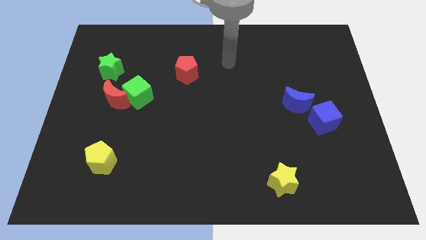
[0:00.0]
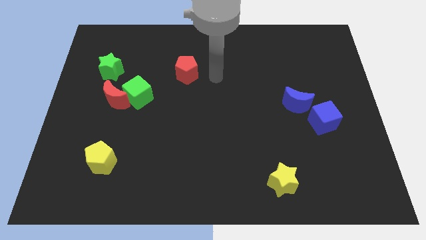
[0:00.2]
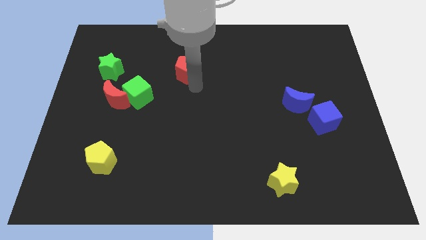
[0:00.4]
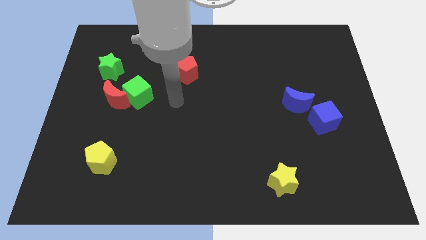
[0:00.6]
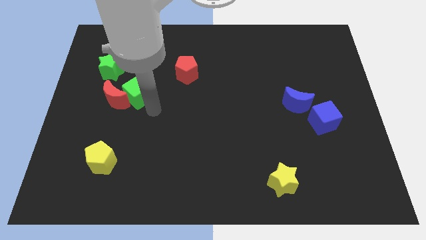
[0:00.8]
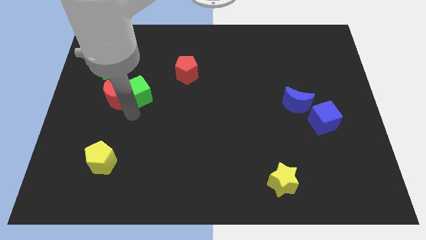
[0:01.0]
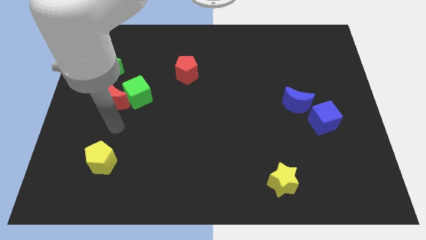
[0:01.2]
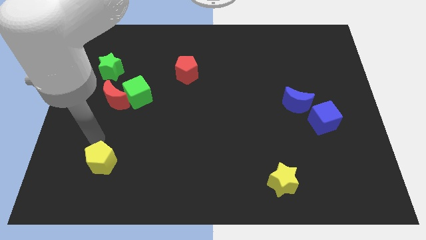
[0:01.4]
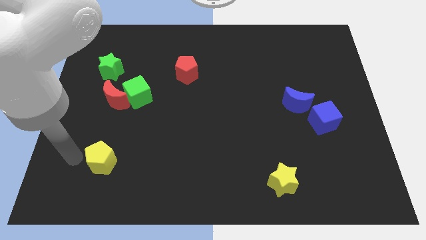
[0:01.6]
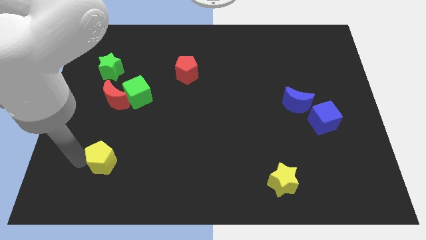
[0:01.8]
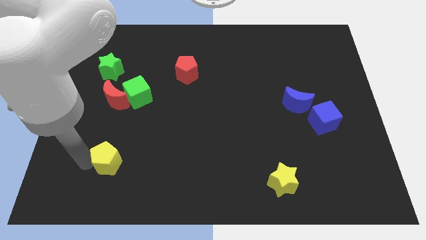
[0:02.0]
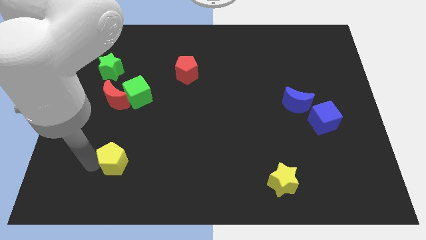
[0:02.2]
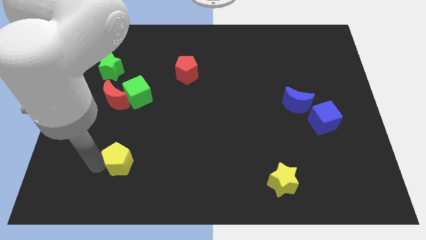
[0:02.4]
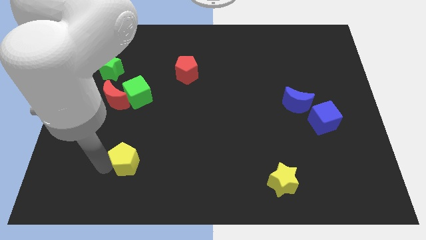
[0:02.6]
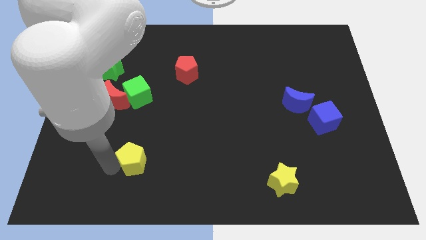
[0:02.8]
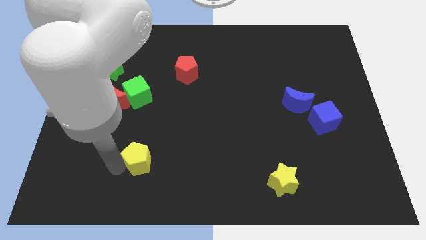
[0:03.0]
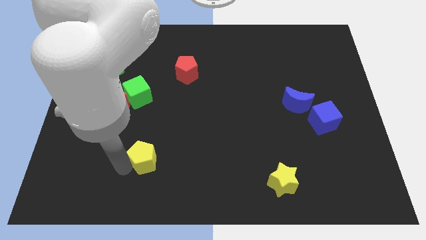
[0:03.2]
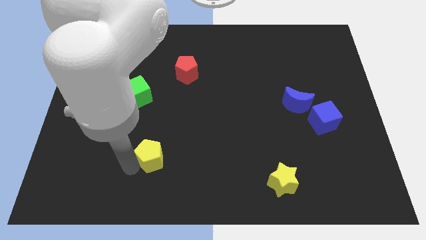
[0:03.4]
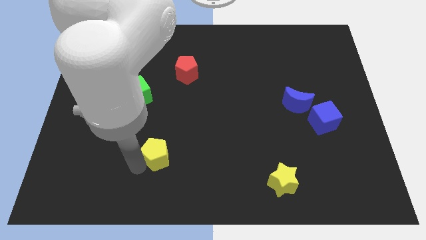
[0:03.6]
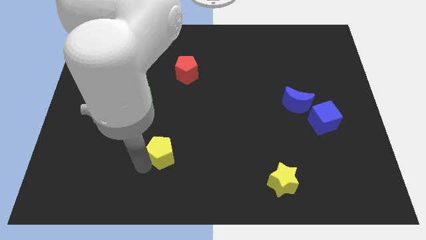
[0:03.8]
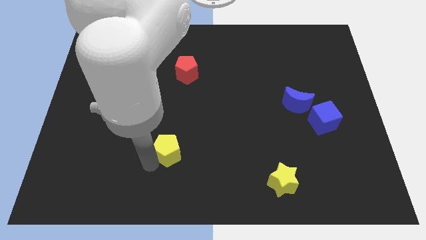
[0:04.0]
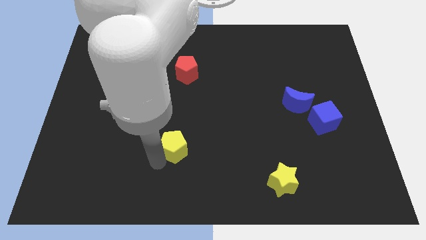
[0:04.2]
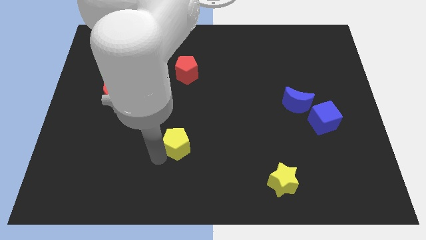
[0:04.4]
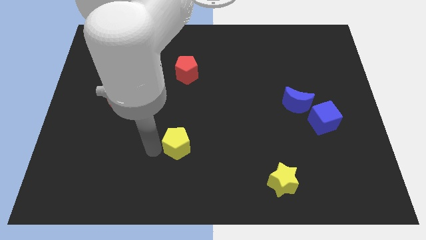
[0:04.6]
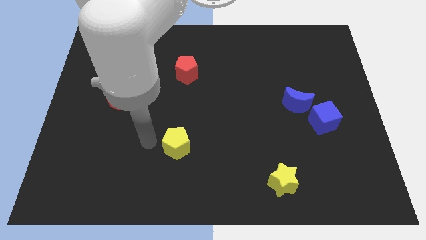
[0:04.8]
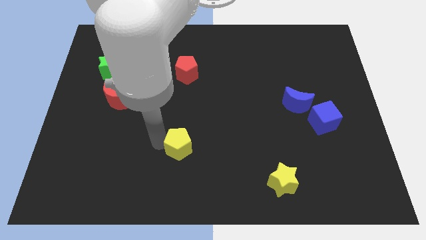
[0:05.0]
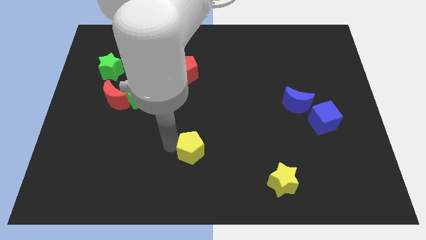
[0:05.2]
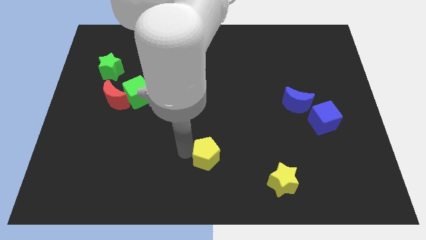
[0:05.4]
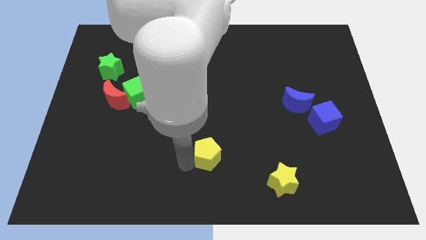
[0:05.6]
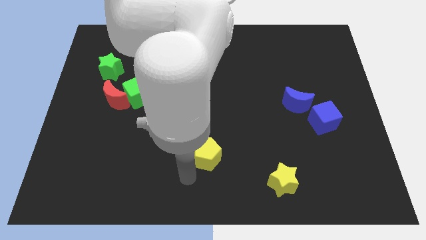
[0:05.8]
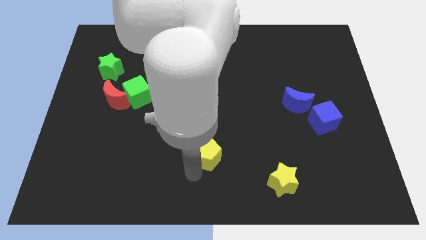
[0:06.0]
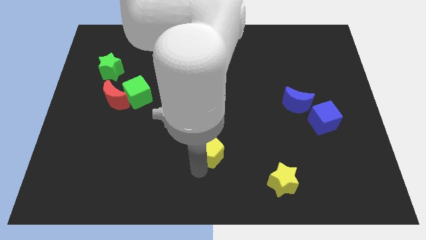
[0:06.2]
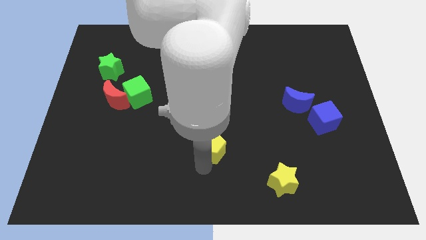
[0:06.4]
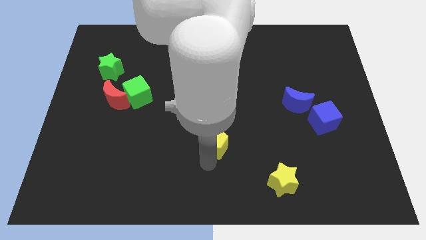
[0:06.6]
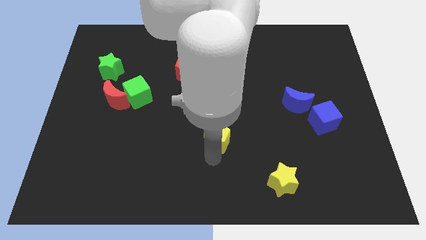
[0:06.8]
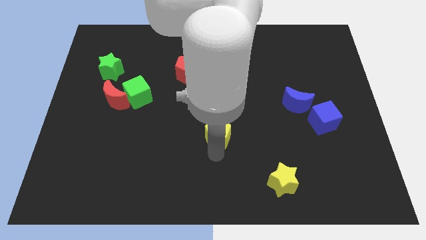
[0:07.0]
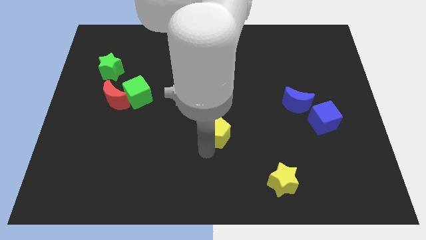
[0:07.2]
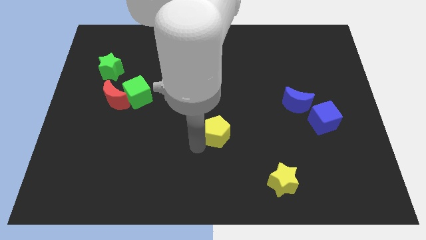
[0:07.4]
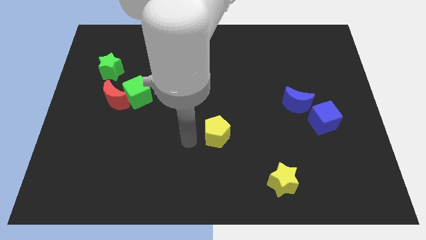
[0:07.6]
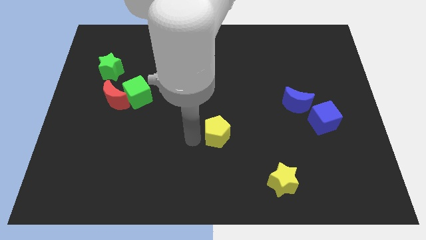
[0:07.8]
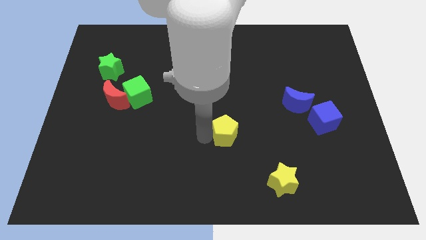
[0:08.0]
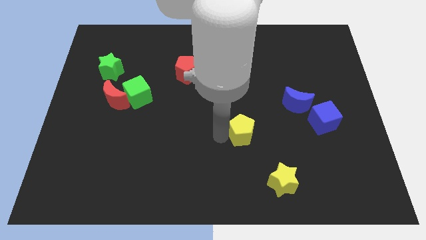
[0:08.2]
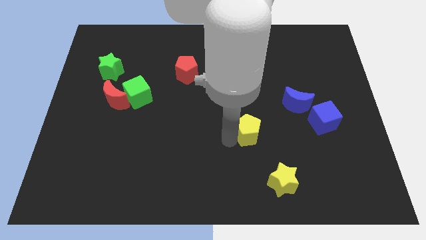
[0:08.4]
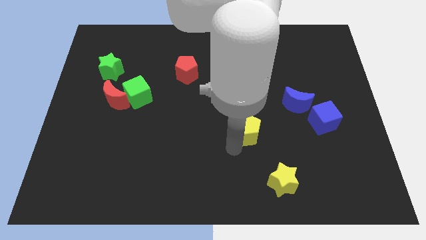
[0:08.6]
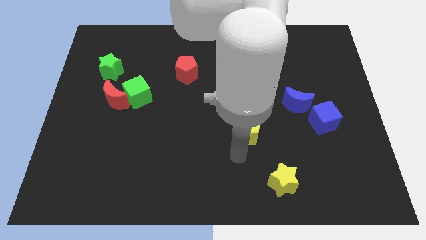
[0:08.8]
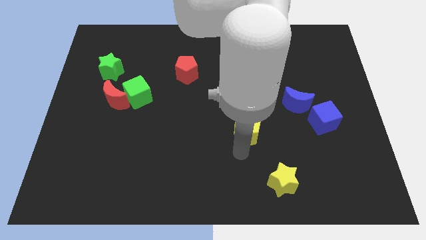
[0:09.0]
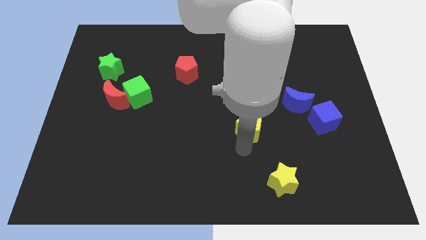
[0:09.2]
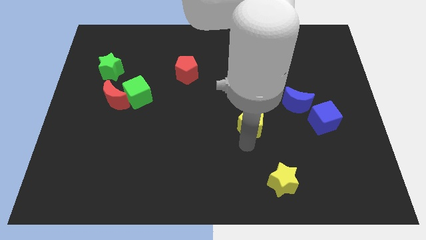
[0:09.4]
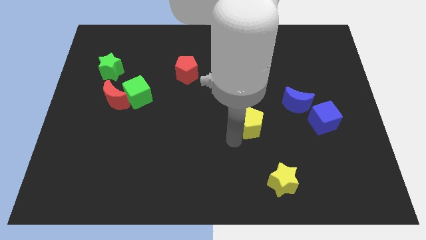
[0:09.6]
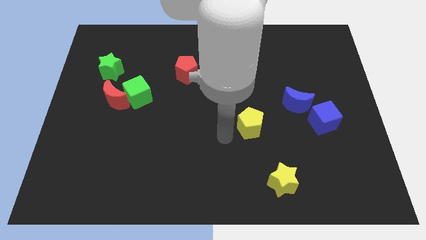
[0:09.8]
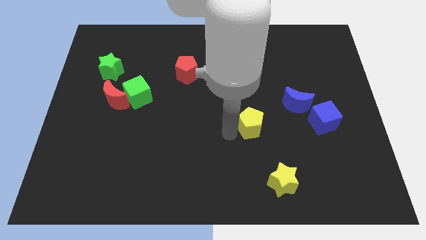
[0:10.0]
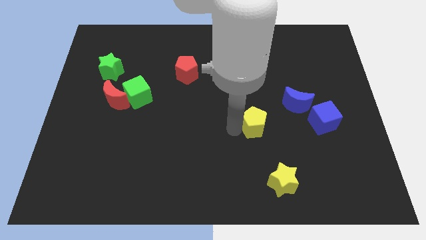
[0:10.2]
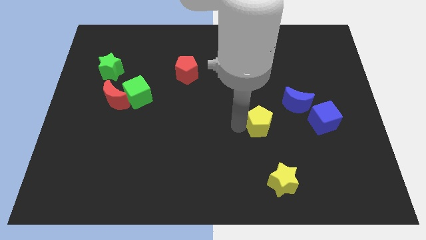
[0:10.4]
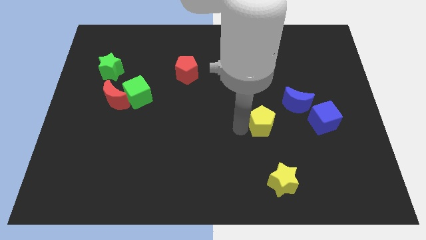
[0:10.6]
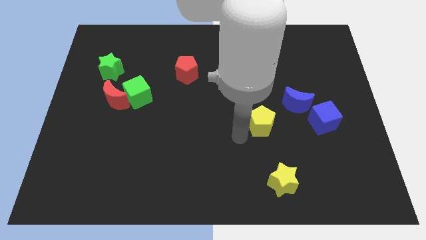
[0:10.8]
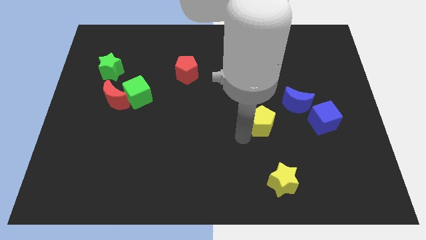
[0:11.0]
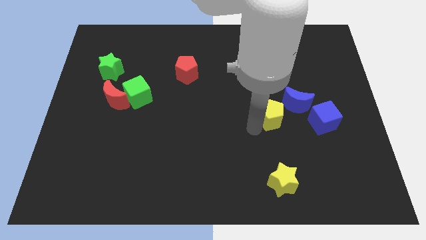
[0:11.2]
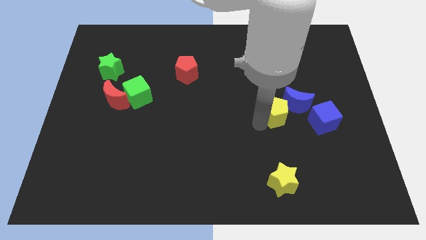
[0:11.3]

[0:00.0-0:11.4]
slide the yellow pentagon next to the blue moon

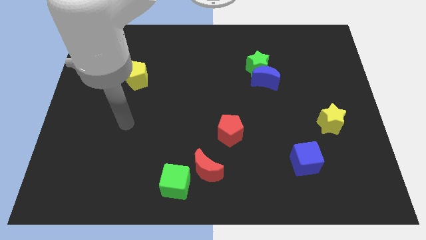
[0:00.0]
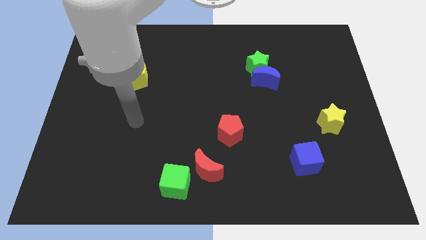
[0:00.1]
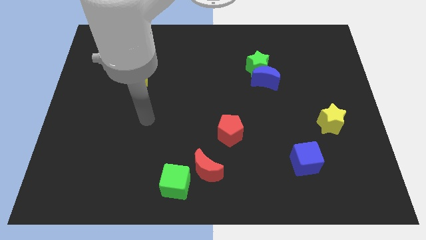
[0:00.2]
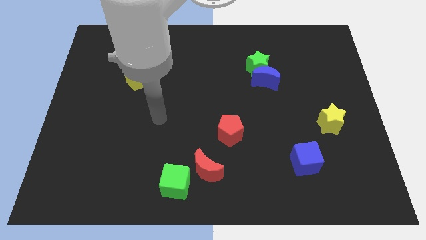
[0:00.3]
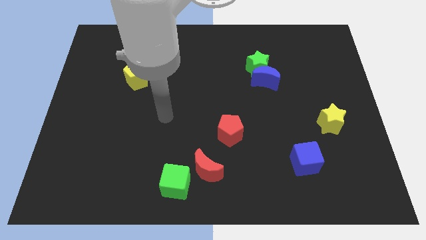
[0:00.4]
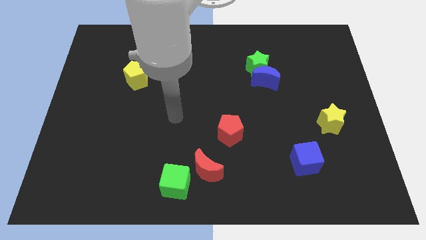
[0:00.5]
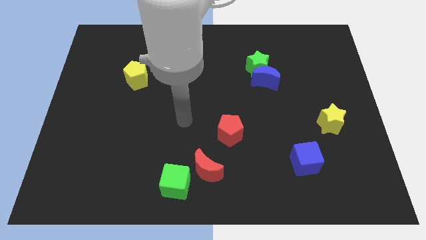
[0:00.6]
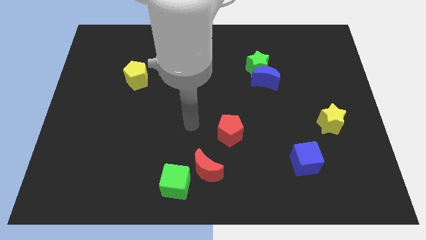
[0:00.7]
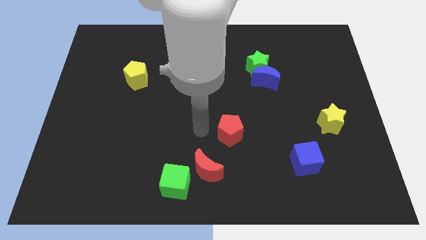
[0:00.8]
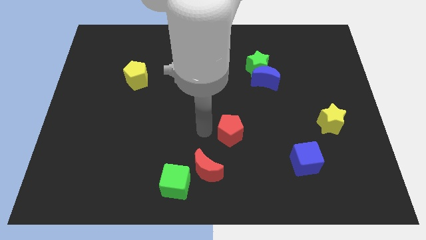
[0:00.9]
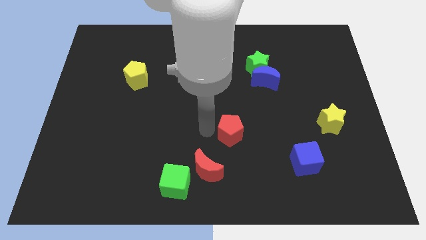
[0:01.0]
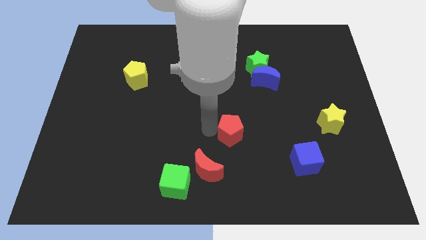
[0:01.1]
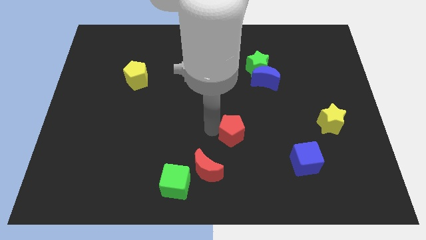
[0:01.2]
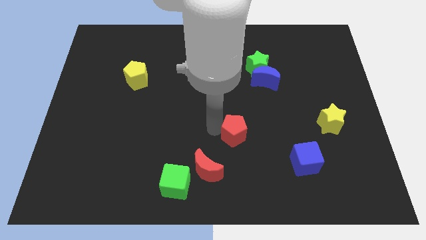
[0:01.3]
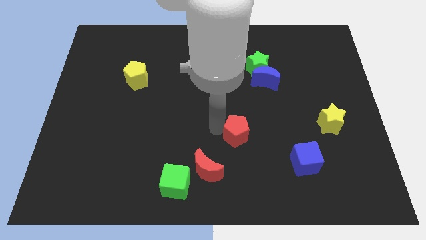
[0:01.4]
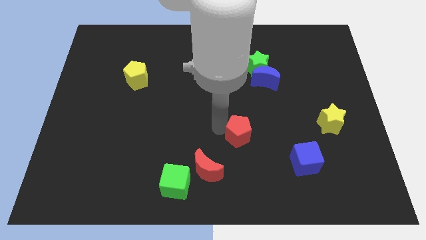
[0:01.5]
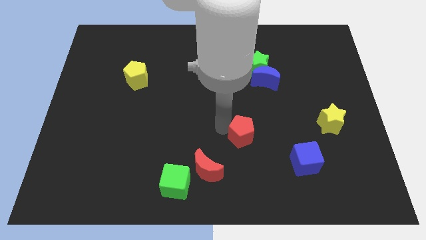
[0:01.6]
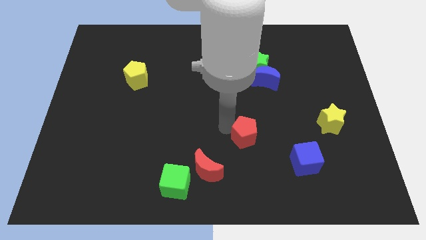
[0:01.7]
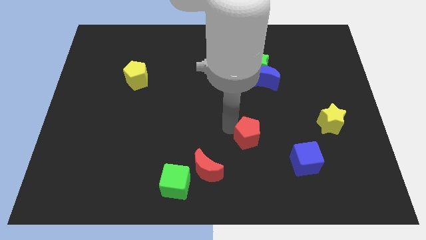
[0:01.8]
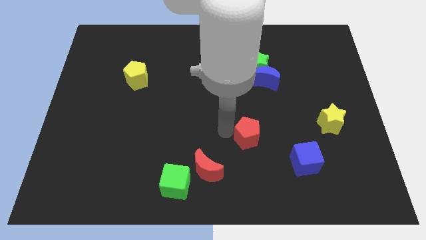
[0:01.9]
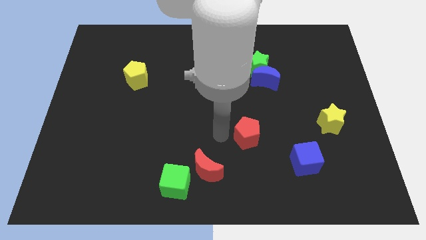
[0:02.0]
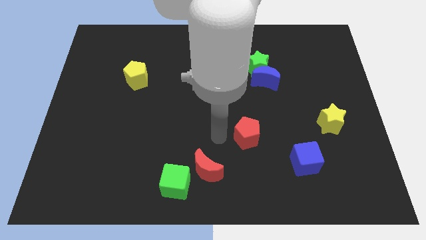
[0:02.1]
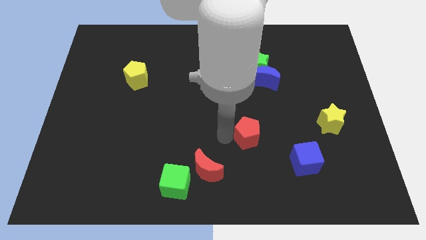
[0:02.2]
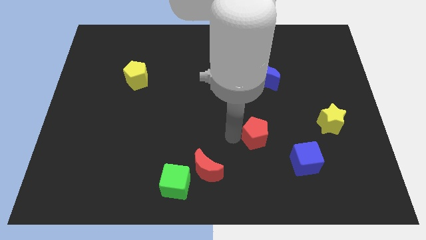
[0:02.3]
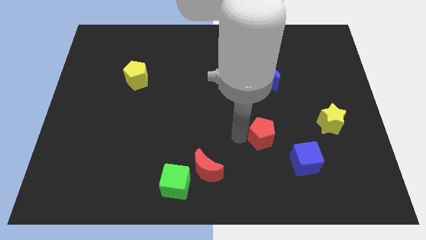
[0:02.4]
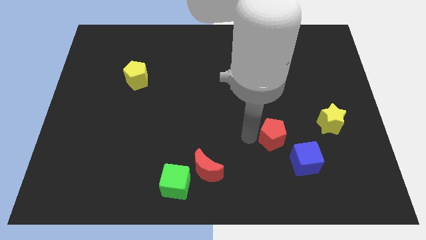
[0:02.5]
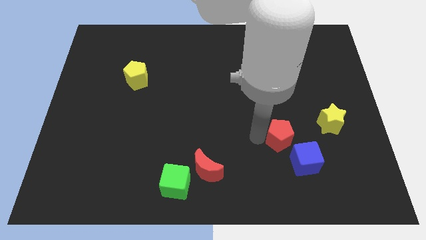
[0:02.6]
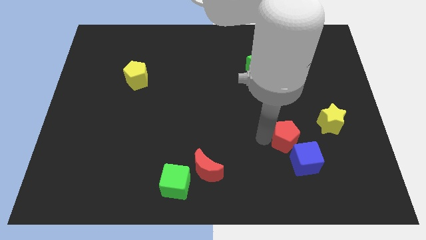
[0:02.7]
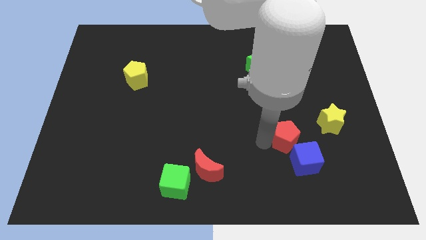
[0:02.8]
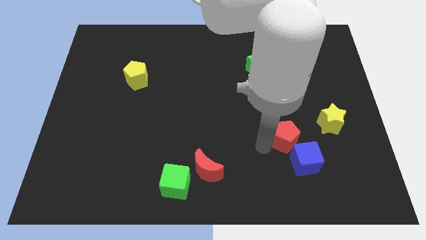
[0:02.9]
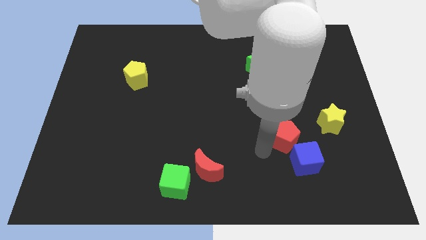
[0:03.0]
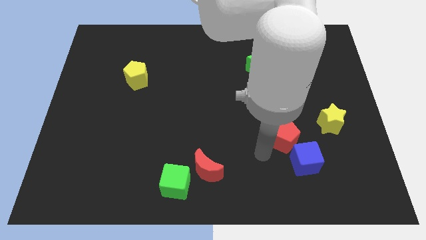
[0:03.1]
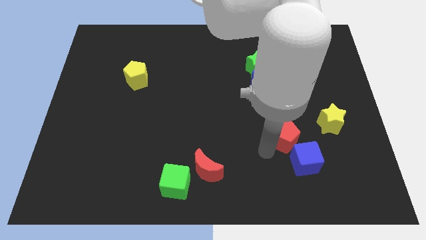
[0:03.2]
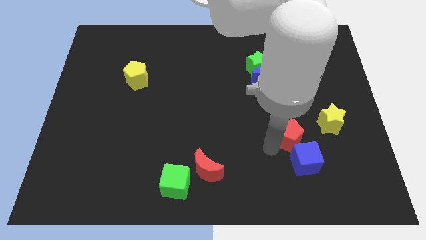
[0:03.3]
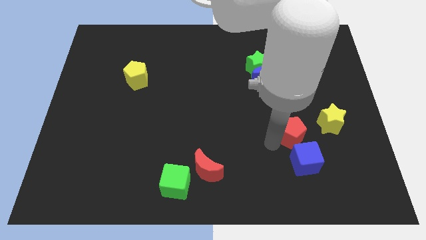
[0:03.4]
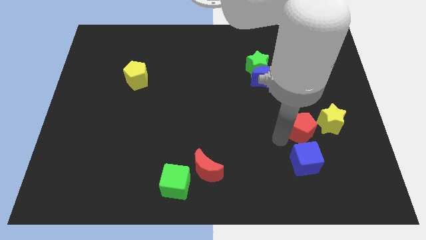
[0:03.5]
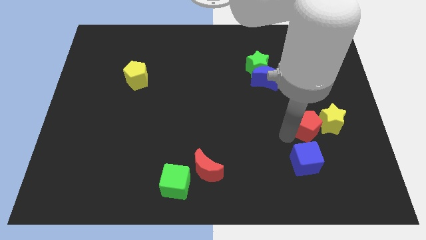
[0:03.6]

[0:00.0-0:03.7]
slide the red pentagon close to the yellow star
